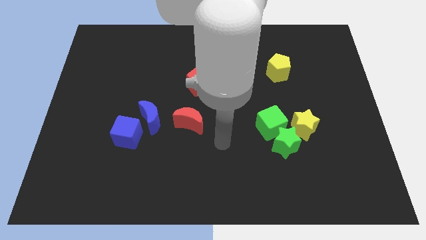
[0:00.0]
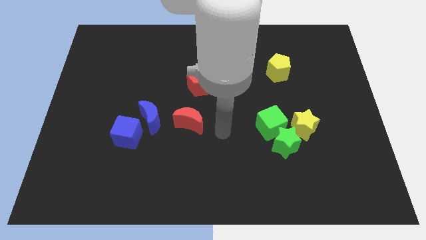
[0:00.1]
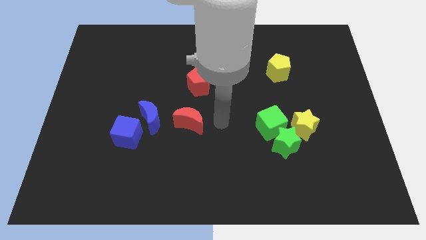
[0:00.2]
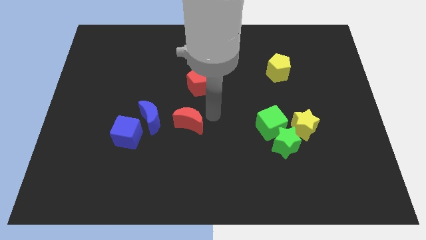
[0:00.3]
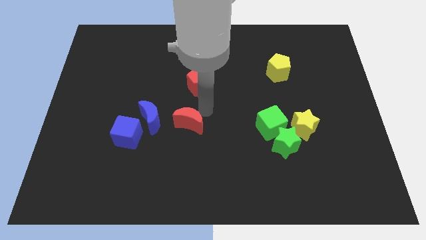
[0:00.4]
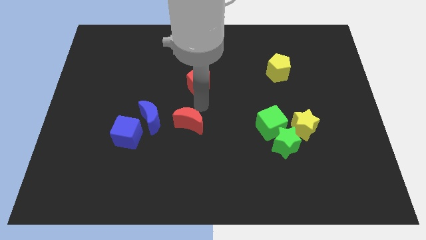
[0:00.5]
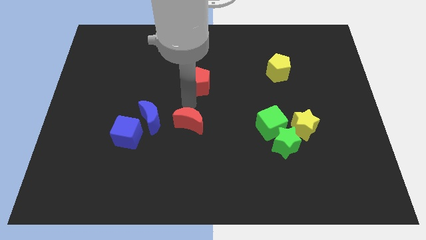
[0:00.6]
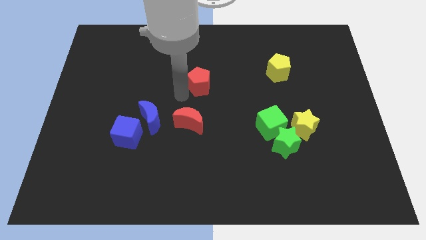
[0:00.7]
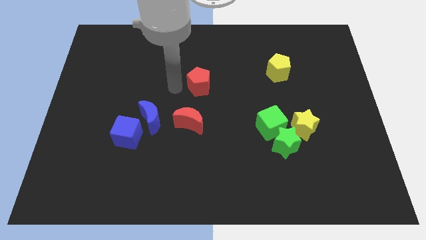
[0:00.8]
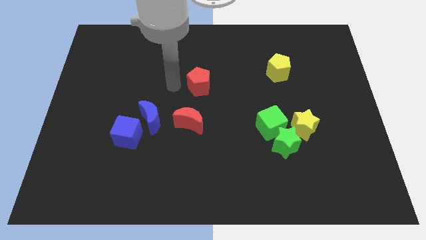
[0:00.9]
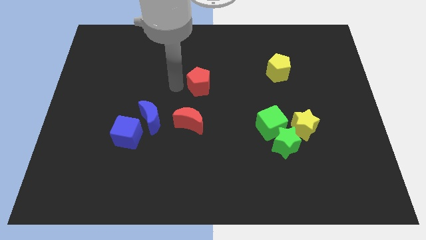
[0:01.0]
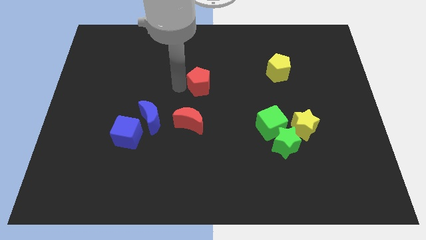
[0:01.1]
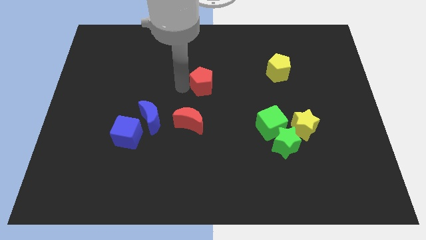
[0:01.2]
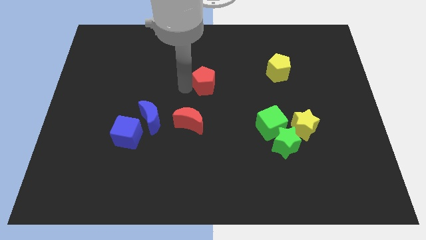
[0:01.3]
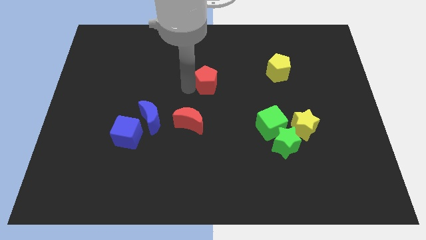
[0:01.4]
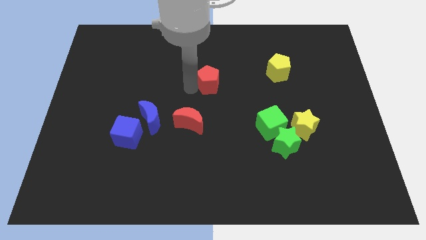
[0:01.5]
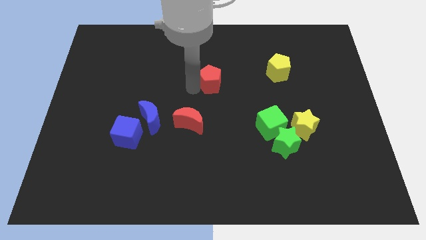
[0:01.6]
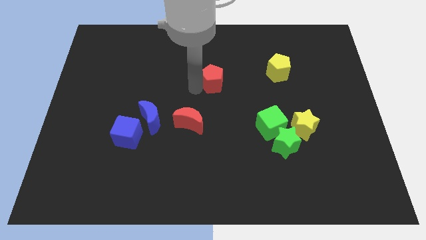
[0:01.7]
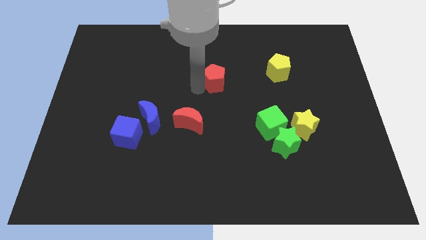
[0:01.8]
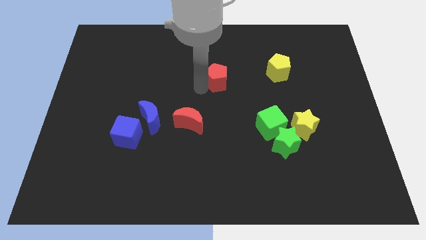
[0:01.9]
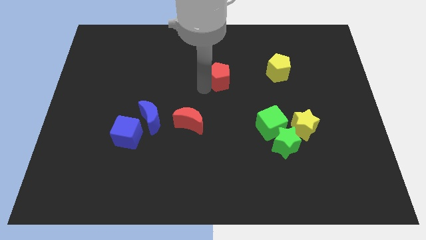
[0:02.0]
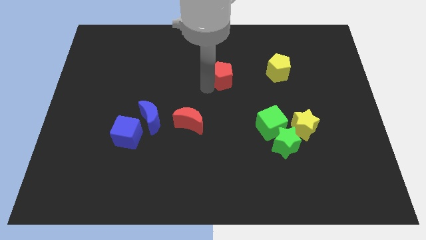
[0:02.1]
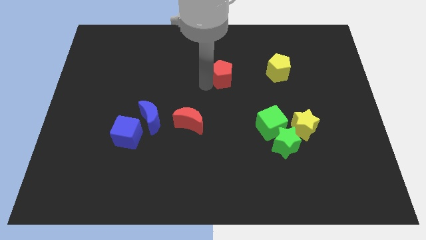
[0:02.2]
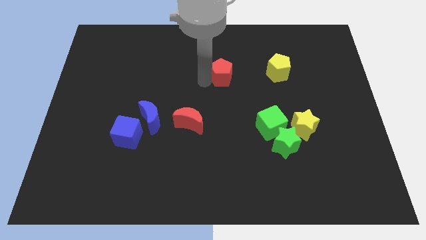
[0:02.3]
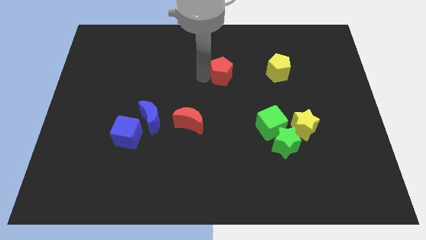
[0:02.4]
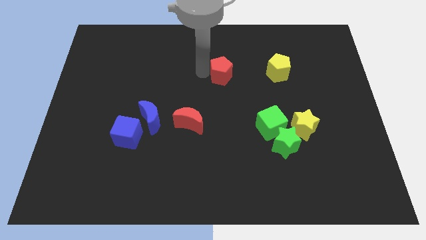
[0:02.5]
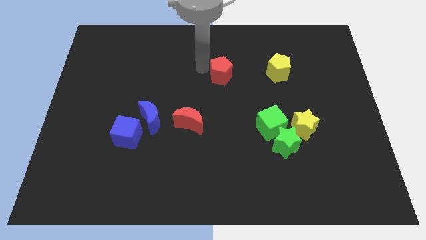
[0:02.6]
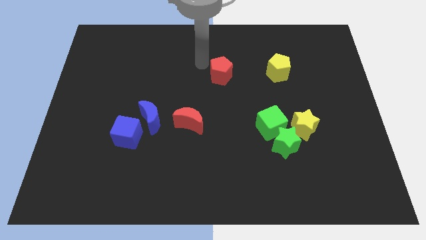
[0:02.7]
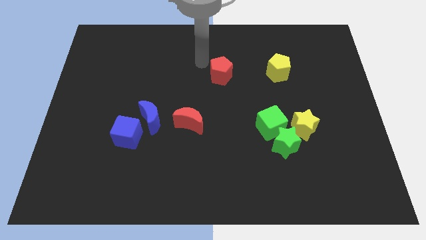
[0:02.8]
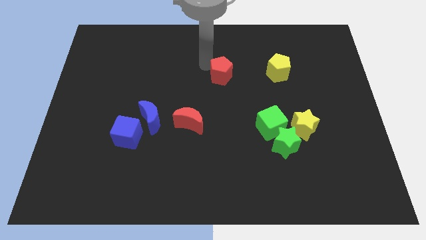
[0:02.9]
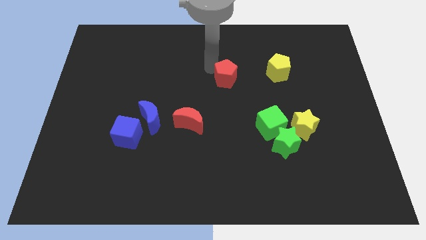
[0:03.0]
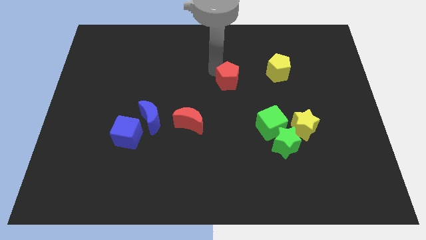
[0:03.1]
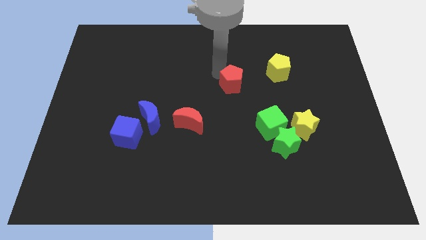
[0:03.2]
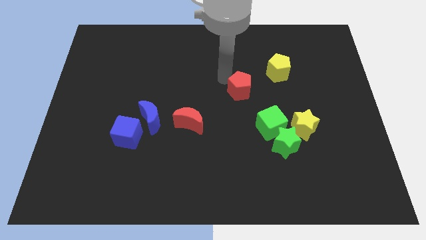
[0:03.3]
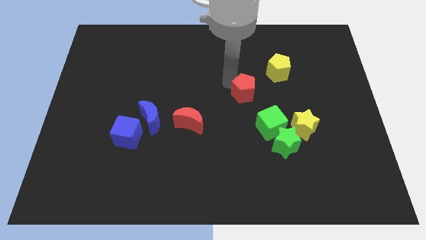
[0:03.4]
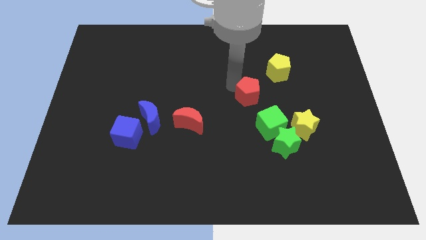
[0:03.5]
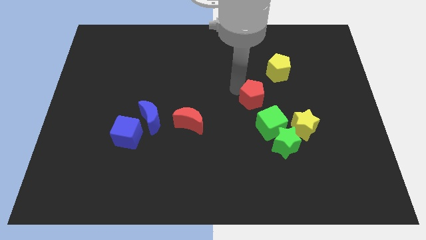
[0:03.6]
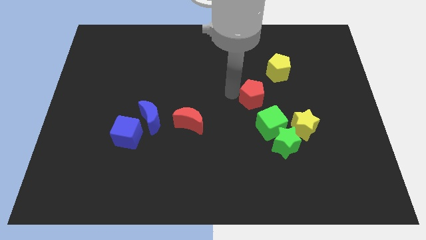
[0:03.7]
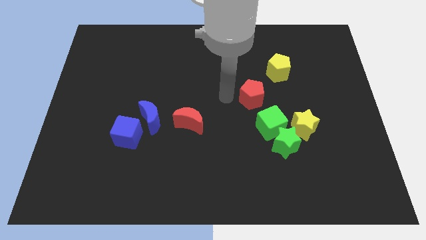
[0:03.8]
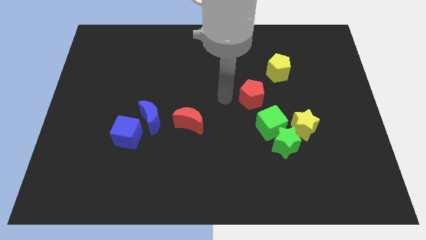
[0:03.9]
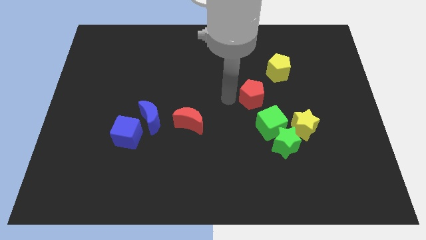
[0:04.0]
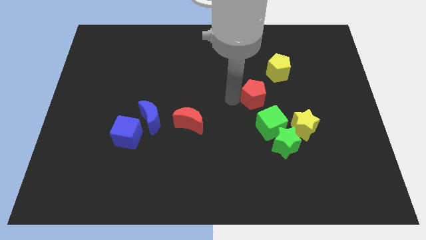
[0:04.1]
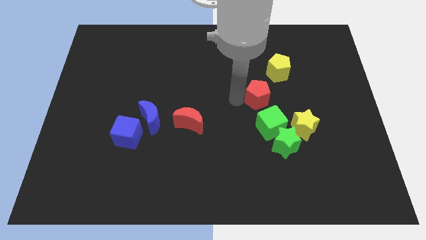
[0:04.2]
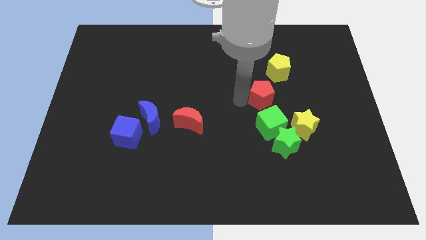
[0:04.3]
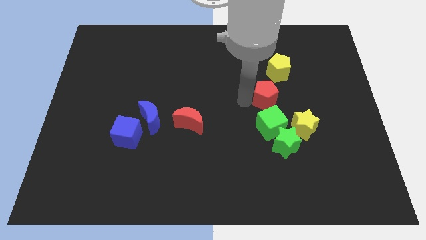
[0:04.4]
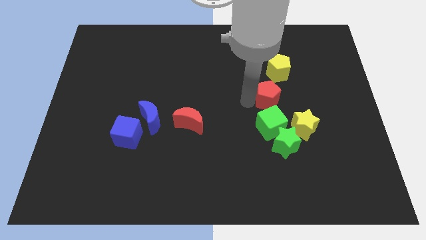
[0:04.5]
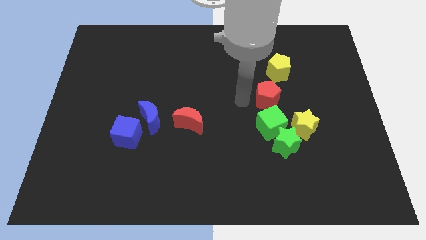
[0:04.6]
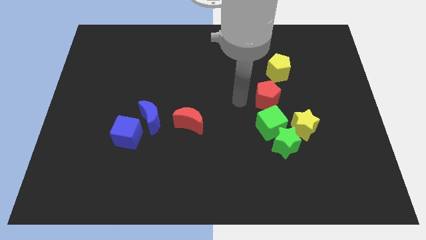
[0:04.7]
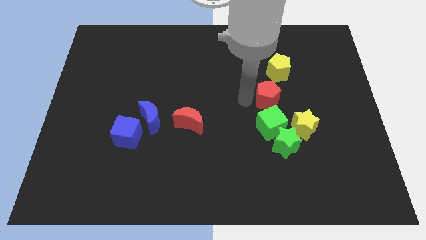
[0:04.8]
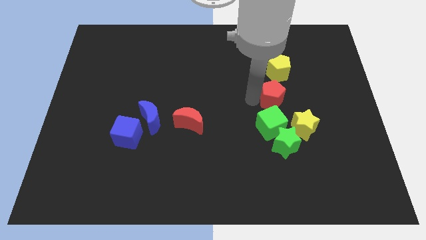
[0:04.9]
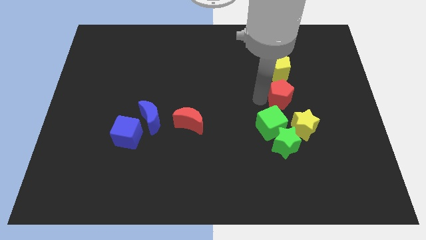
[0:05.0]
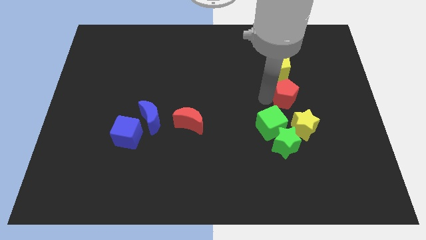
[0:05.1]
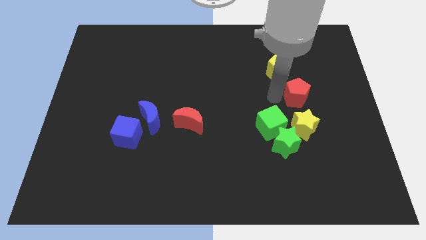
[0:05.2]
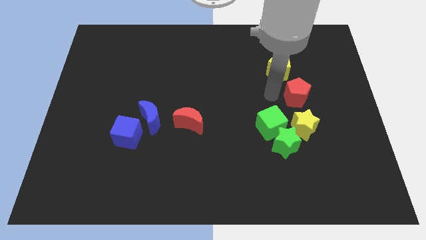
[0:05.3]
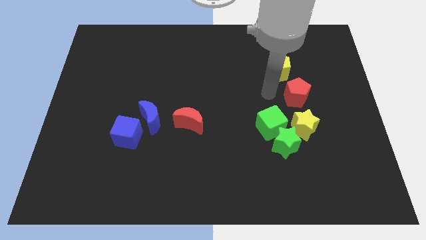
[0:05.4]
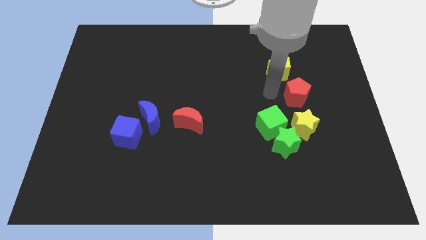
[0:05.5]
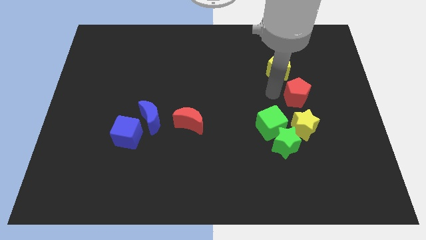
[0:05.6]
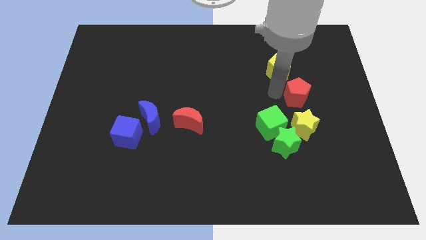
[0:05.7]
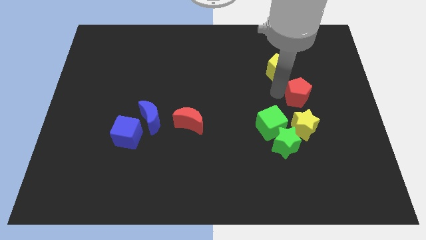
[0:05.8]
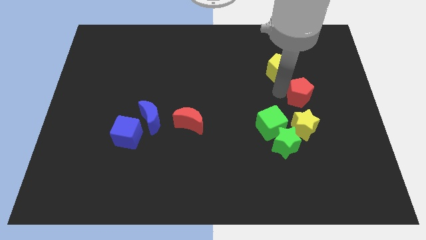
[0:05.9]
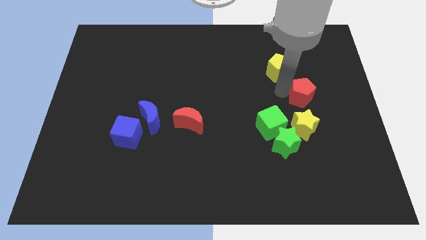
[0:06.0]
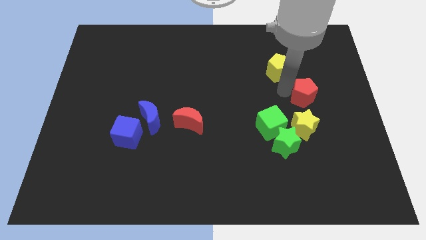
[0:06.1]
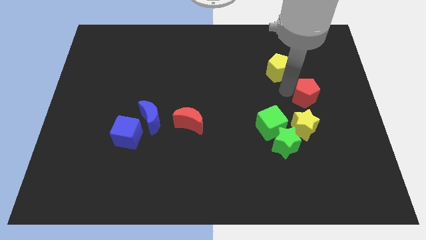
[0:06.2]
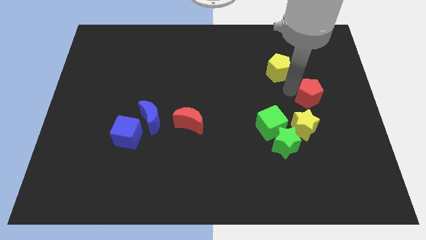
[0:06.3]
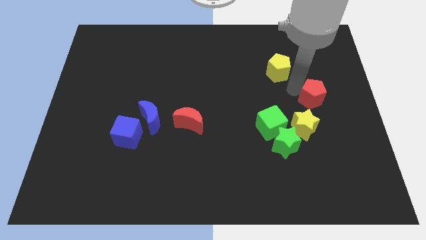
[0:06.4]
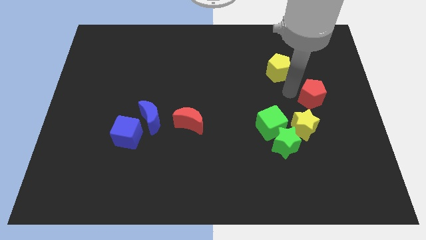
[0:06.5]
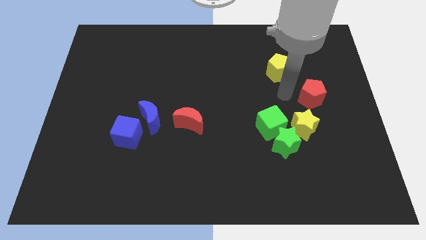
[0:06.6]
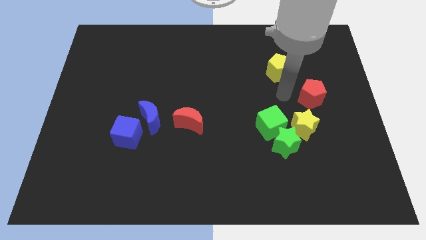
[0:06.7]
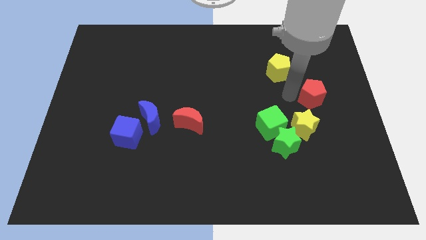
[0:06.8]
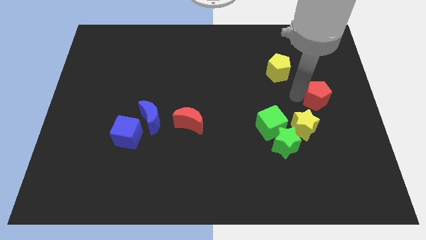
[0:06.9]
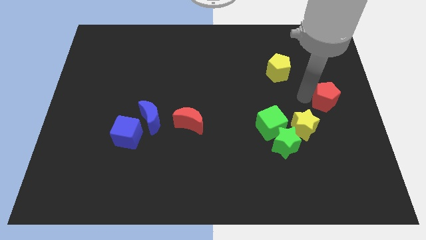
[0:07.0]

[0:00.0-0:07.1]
push the red pentagon to the right side of the board
